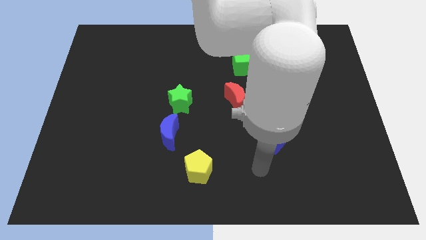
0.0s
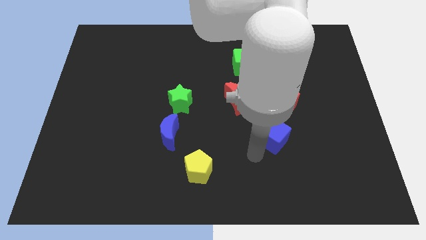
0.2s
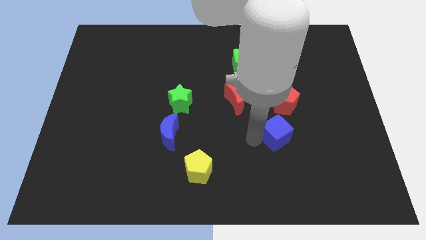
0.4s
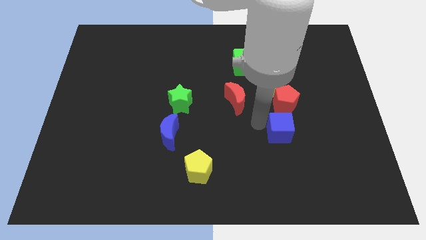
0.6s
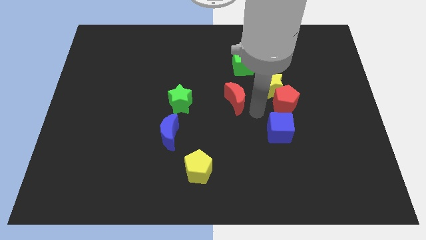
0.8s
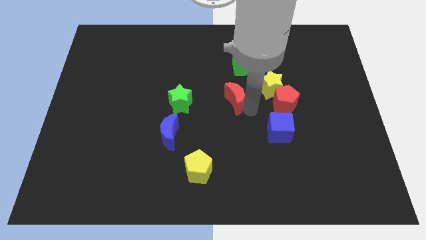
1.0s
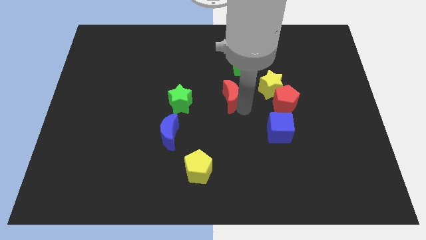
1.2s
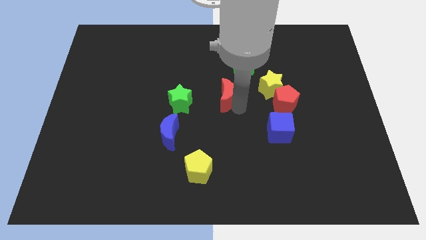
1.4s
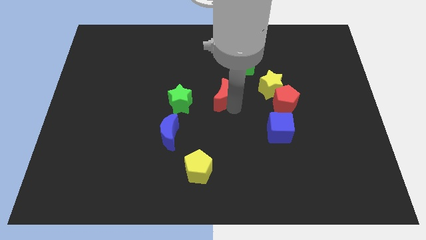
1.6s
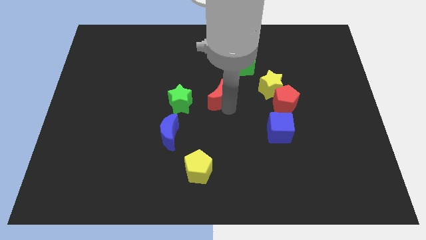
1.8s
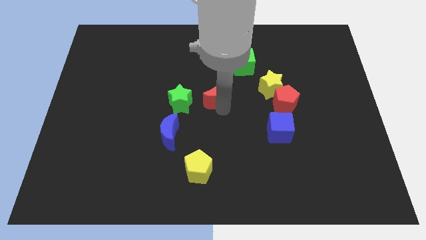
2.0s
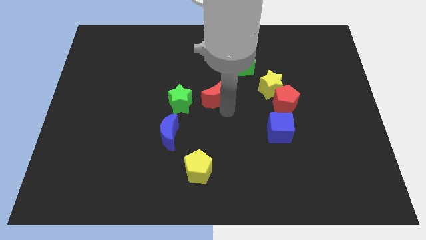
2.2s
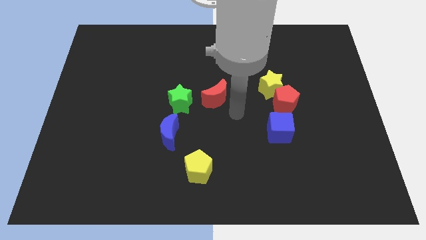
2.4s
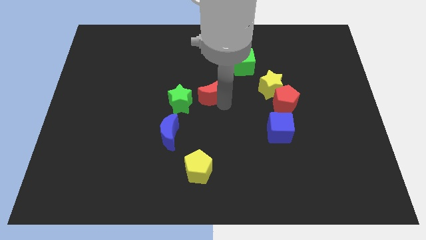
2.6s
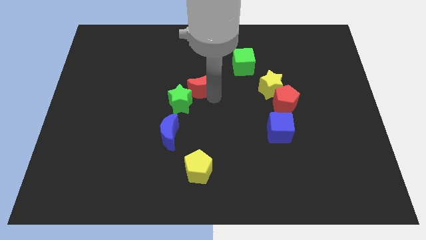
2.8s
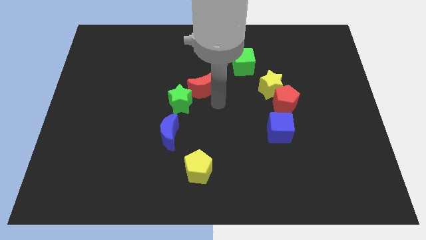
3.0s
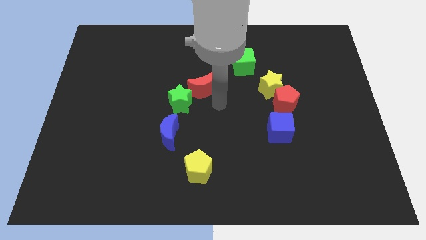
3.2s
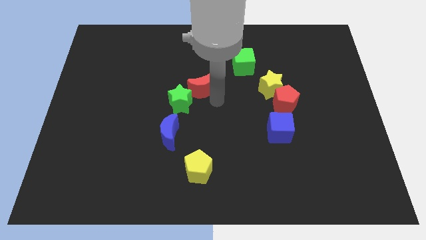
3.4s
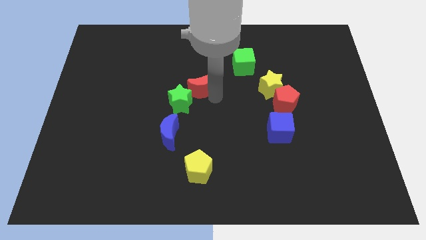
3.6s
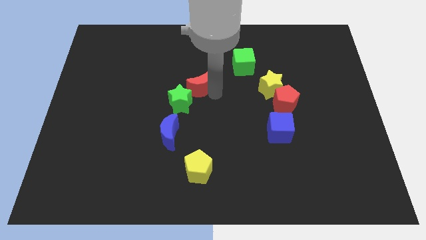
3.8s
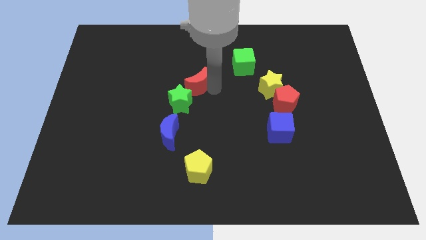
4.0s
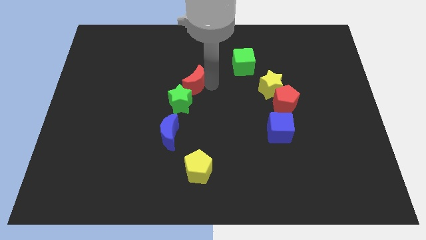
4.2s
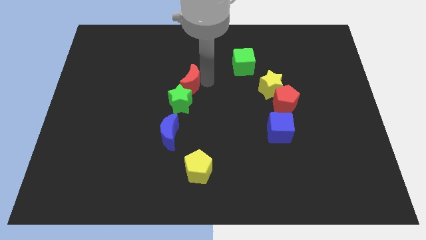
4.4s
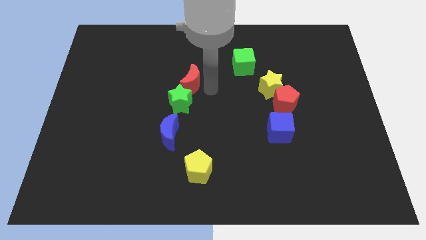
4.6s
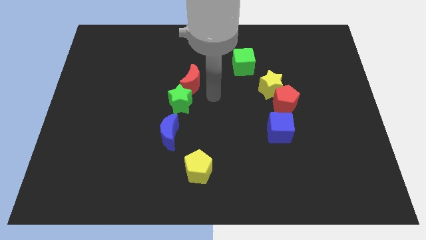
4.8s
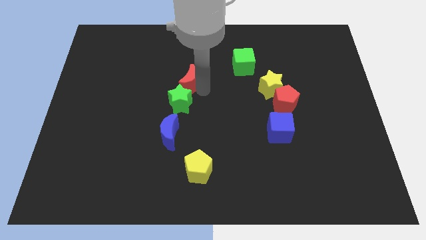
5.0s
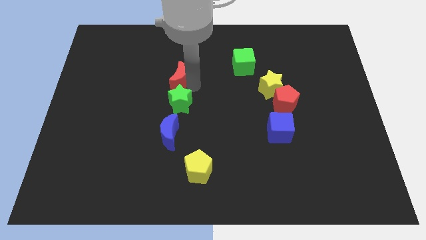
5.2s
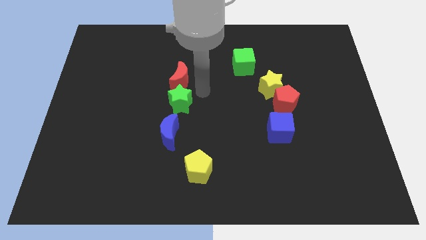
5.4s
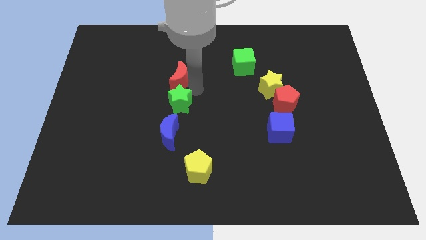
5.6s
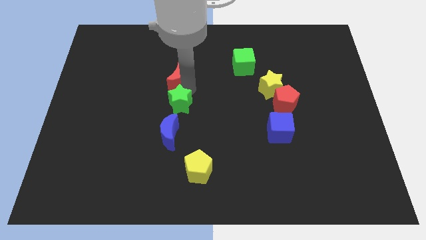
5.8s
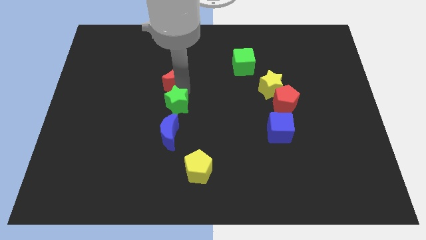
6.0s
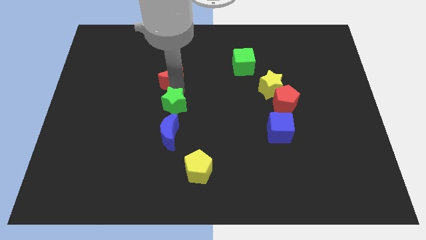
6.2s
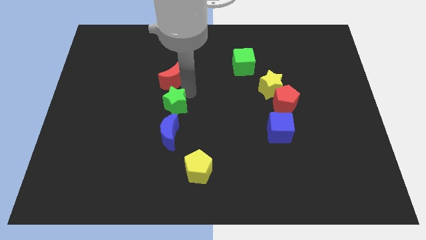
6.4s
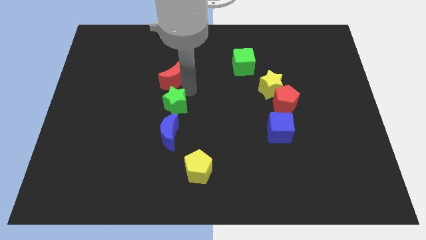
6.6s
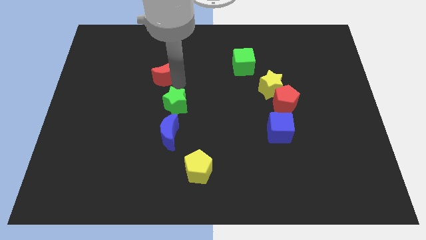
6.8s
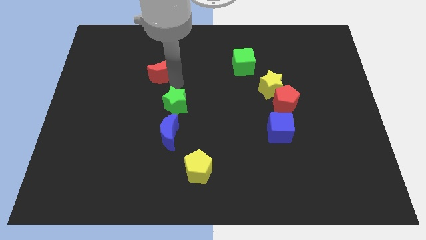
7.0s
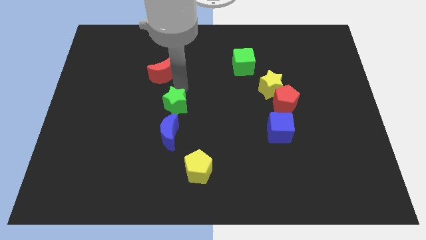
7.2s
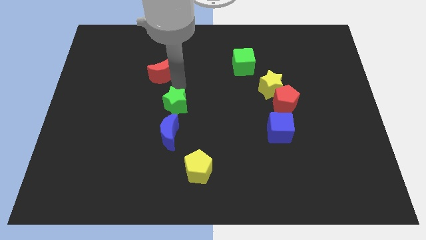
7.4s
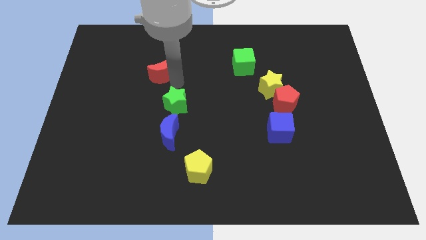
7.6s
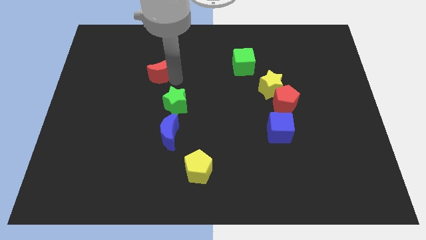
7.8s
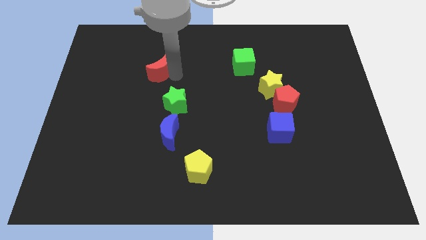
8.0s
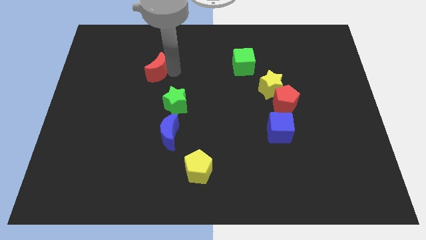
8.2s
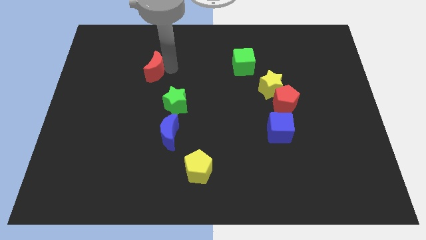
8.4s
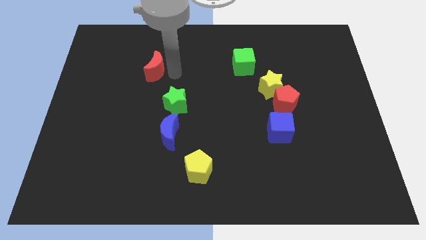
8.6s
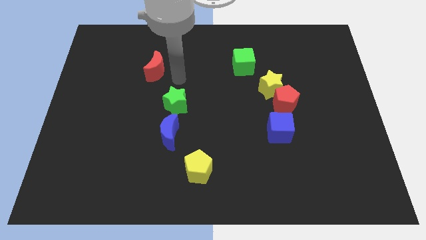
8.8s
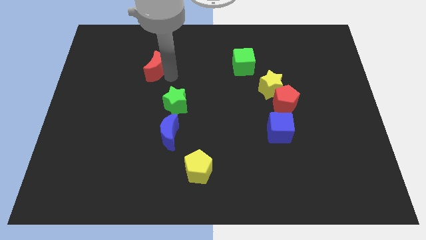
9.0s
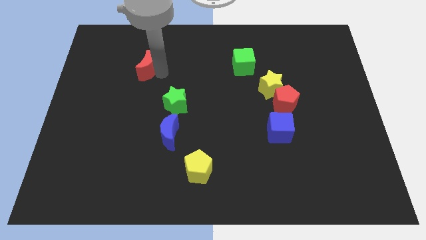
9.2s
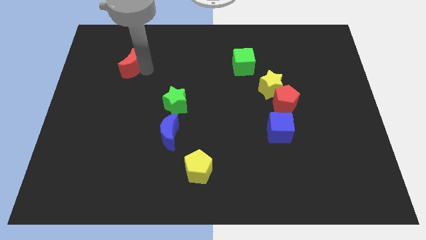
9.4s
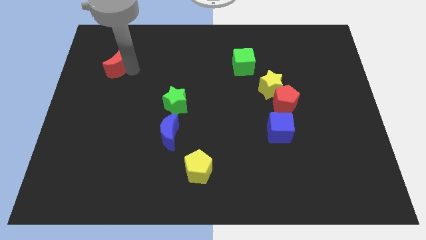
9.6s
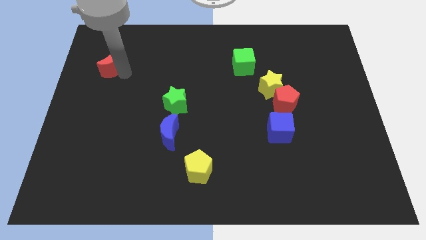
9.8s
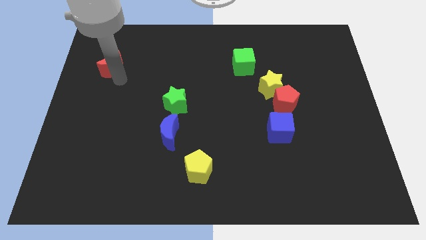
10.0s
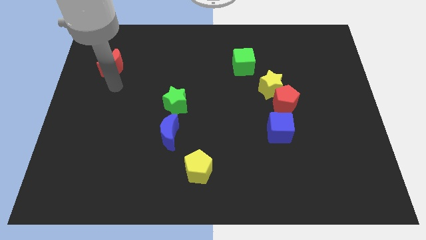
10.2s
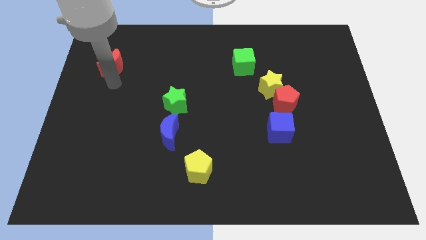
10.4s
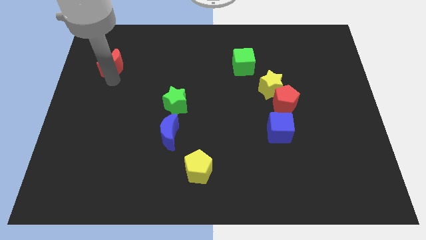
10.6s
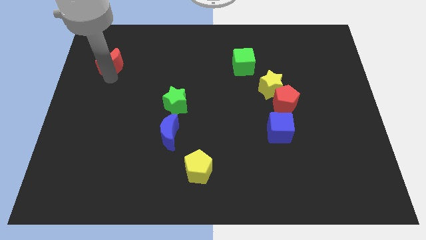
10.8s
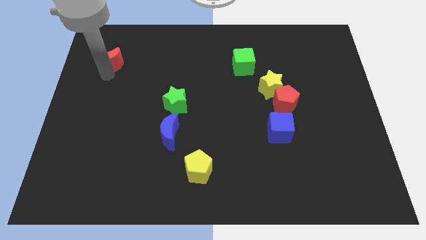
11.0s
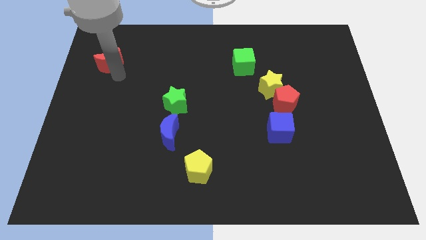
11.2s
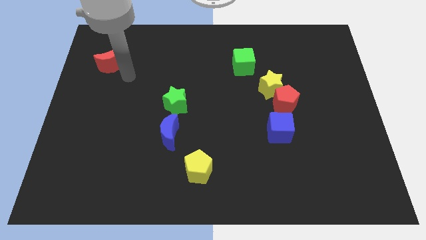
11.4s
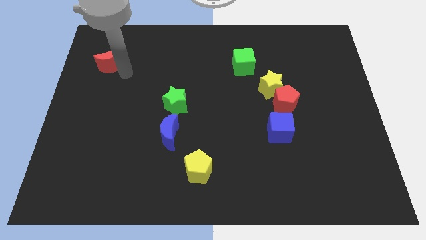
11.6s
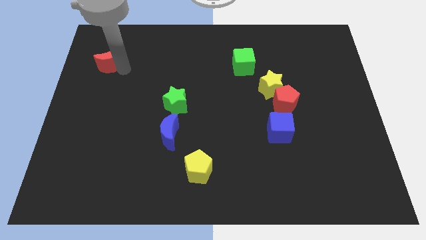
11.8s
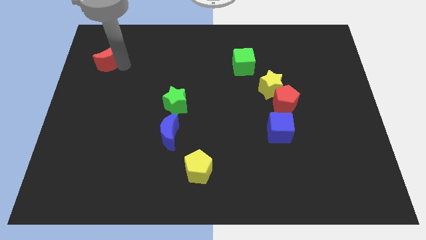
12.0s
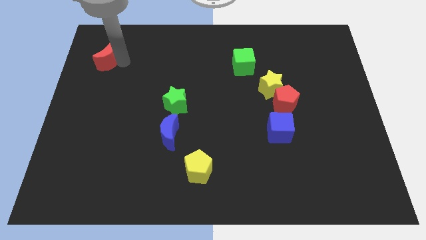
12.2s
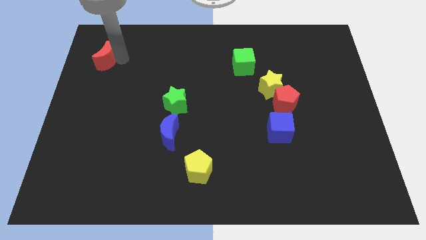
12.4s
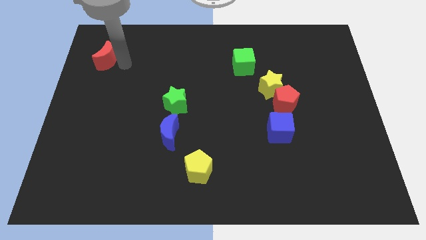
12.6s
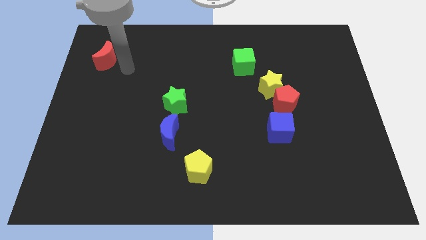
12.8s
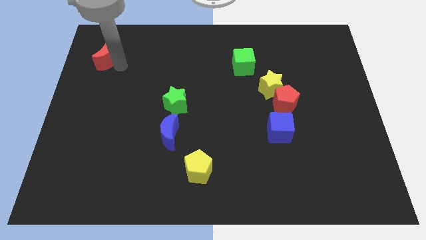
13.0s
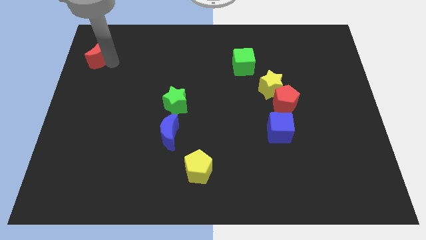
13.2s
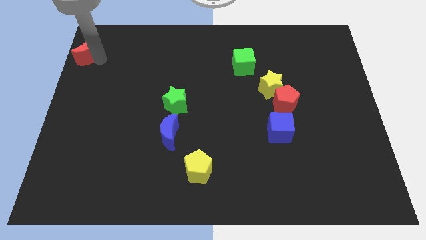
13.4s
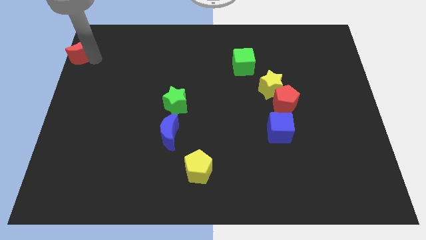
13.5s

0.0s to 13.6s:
push the red moon to the upper left corner
